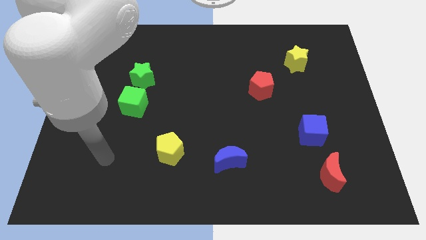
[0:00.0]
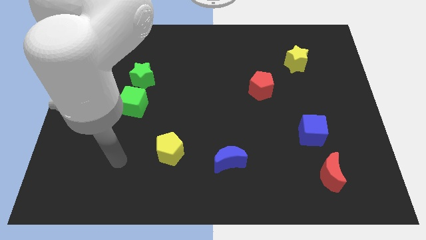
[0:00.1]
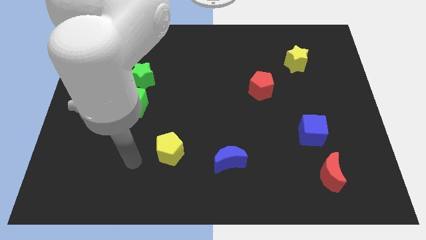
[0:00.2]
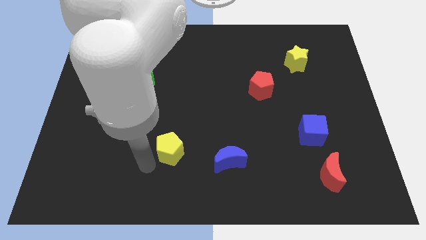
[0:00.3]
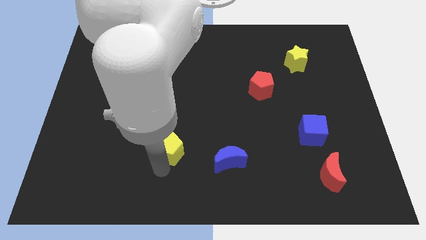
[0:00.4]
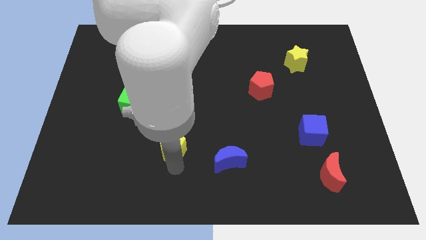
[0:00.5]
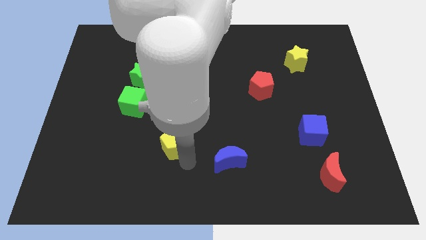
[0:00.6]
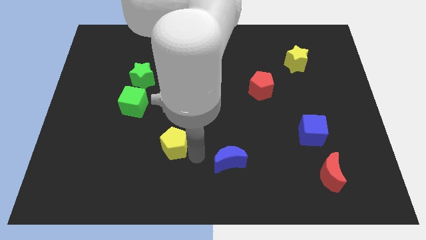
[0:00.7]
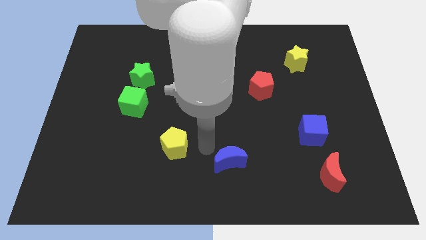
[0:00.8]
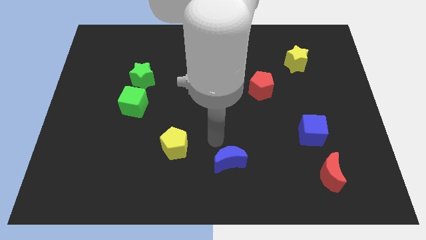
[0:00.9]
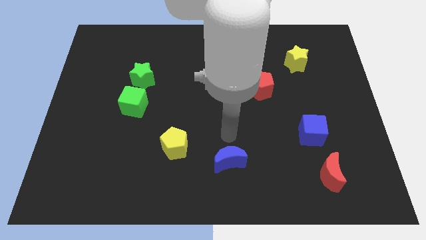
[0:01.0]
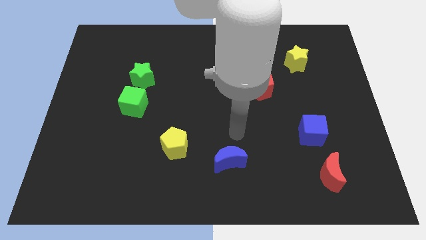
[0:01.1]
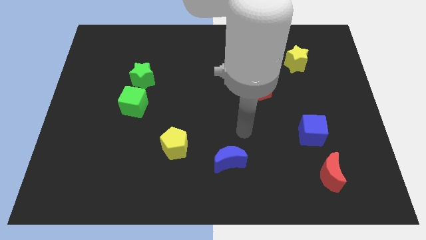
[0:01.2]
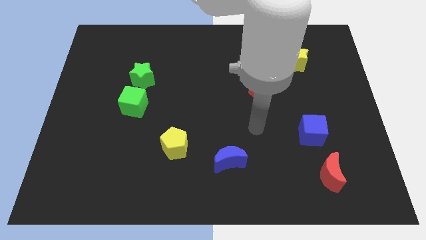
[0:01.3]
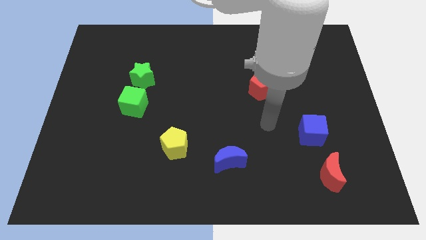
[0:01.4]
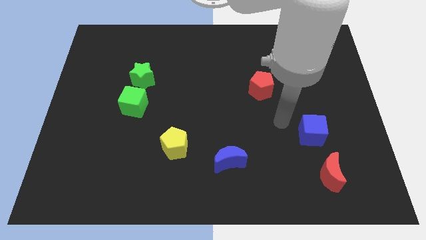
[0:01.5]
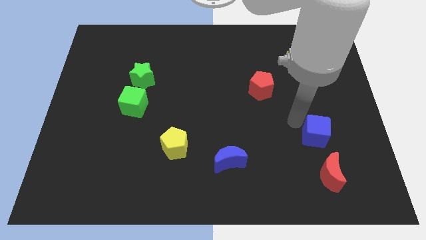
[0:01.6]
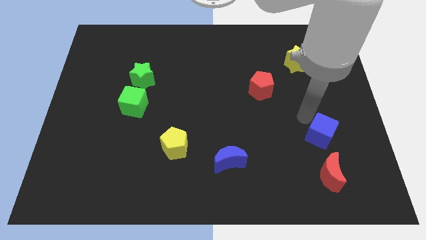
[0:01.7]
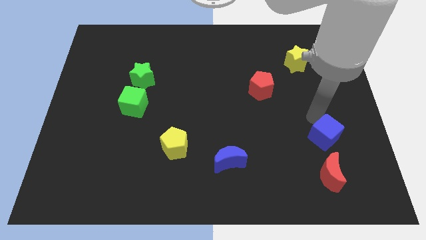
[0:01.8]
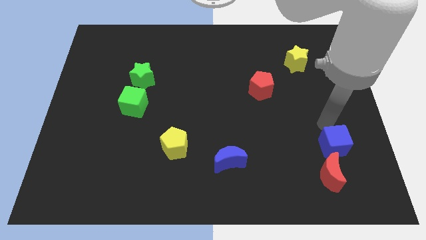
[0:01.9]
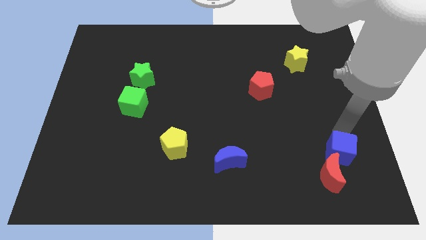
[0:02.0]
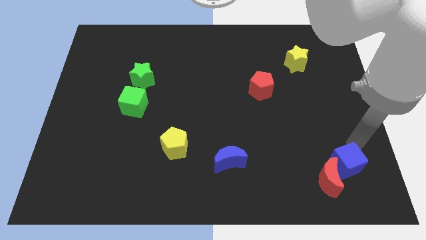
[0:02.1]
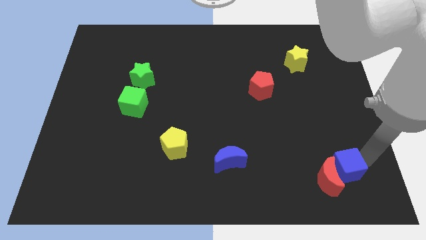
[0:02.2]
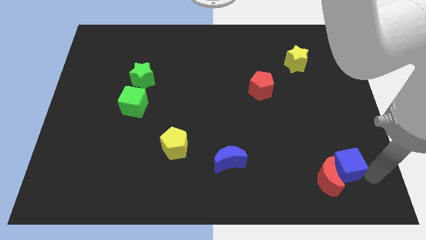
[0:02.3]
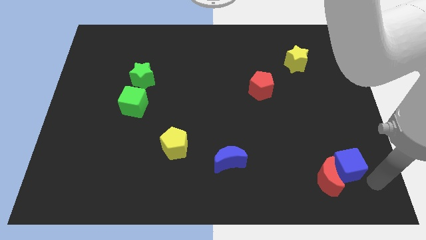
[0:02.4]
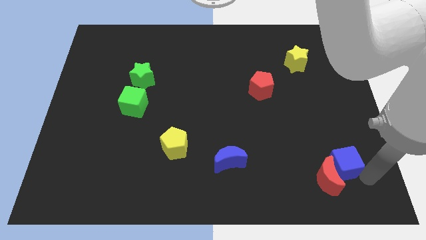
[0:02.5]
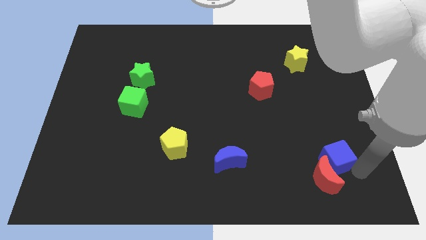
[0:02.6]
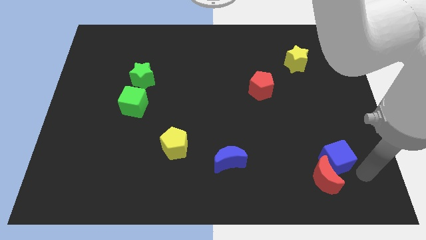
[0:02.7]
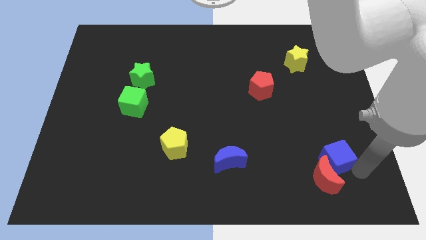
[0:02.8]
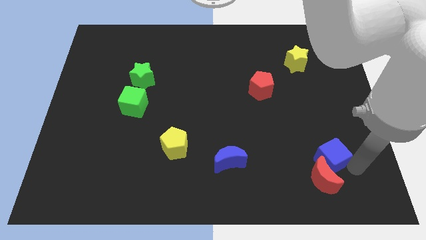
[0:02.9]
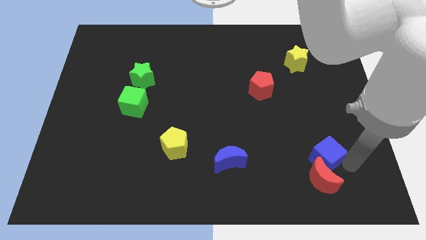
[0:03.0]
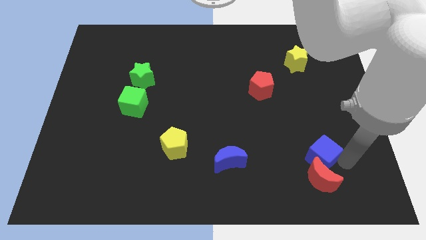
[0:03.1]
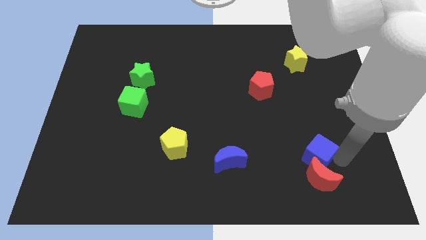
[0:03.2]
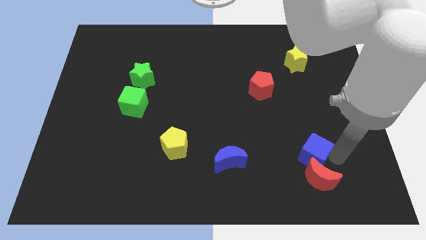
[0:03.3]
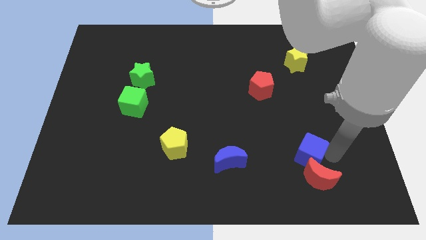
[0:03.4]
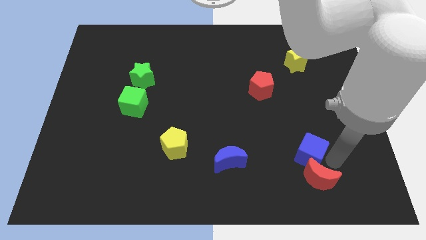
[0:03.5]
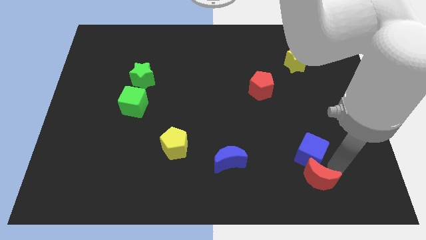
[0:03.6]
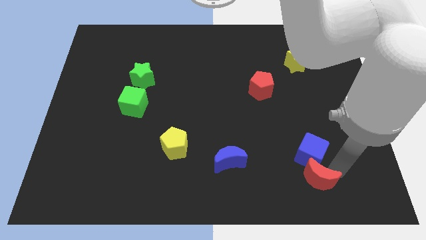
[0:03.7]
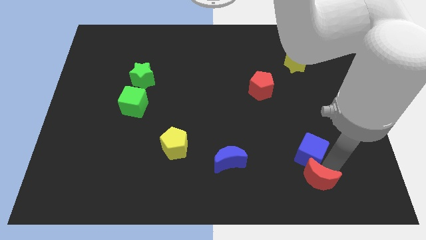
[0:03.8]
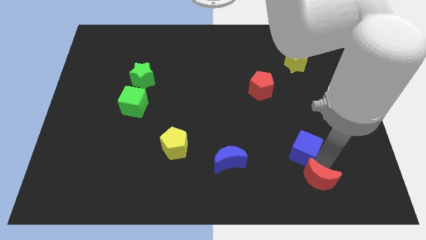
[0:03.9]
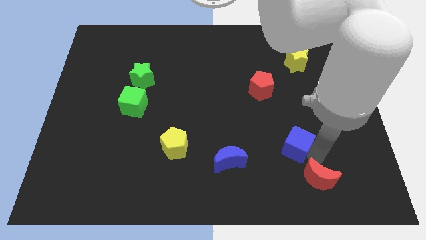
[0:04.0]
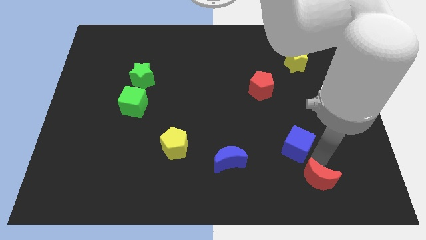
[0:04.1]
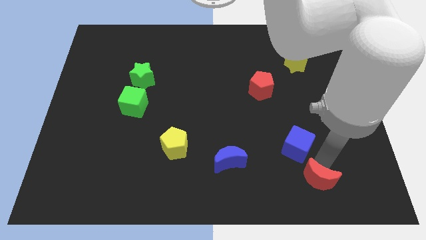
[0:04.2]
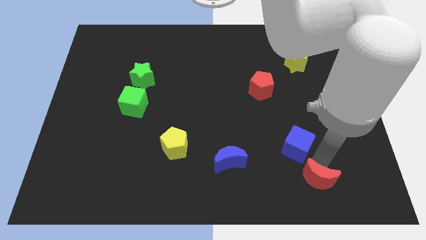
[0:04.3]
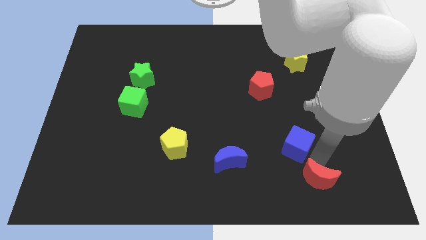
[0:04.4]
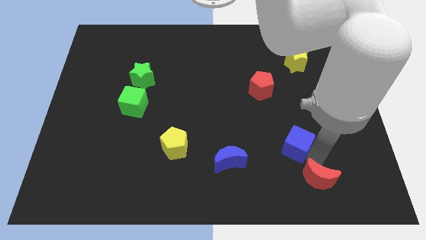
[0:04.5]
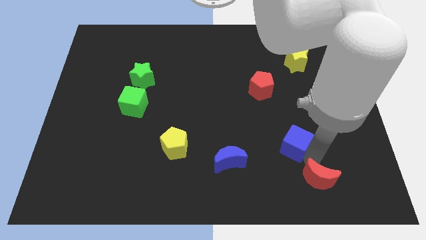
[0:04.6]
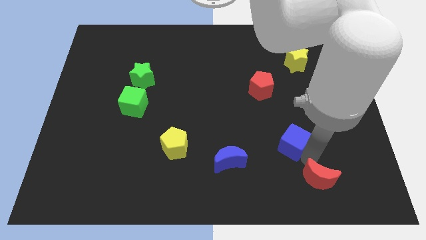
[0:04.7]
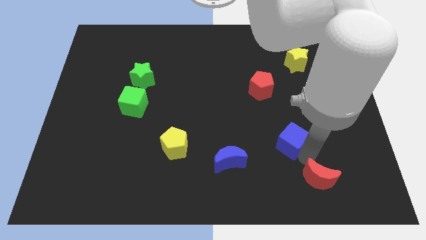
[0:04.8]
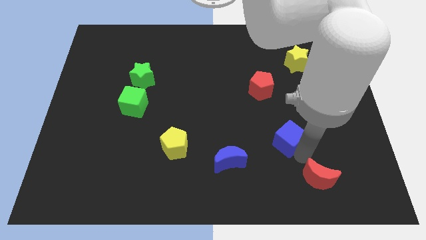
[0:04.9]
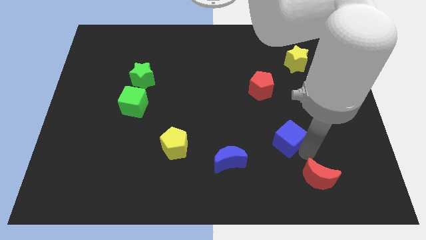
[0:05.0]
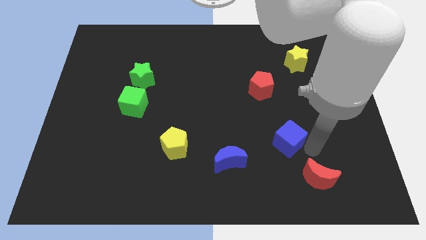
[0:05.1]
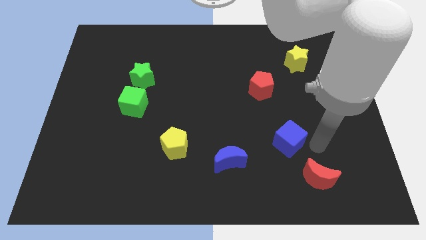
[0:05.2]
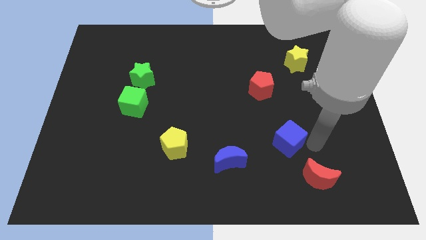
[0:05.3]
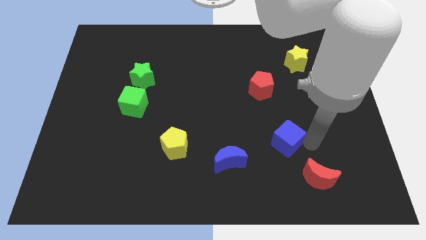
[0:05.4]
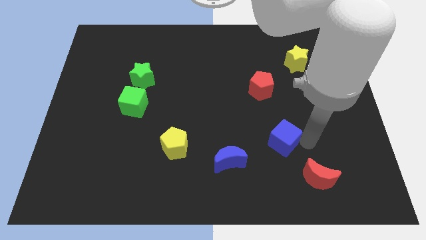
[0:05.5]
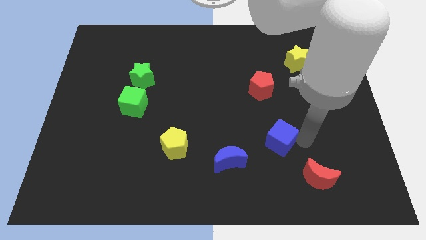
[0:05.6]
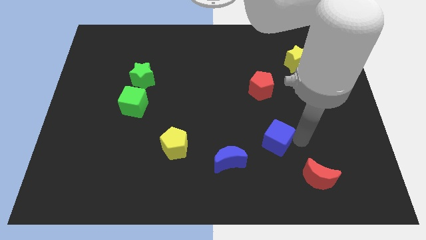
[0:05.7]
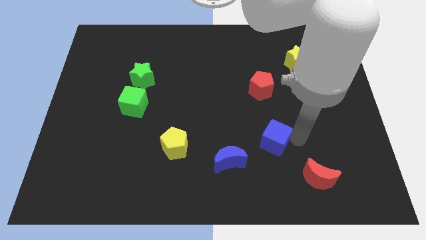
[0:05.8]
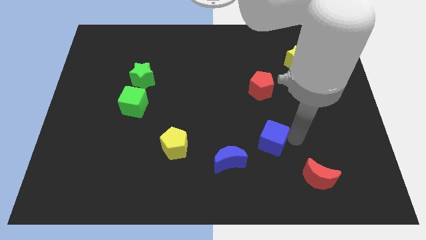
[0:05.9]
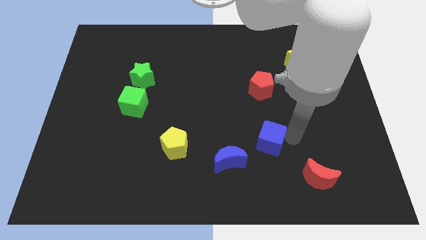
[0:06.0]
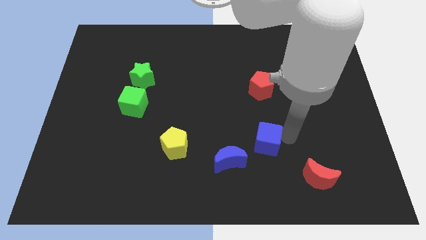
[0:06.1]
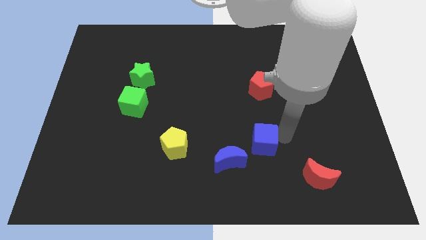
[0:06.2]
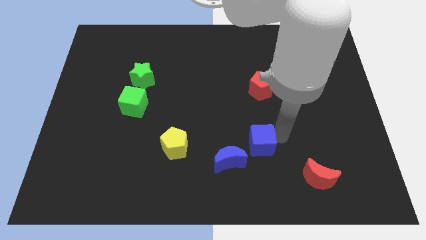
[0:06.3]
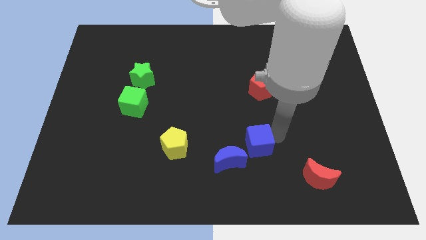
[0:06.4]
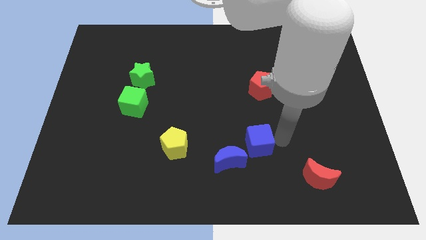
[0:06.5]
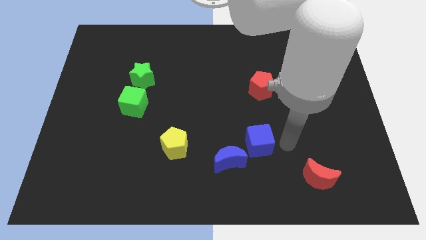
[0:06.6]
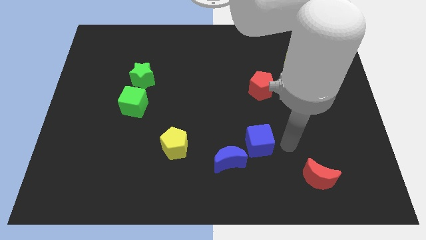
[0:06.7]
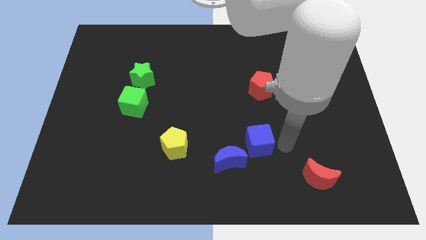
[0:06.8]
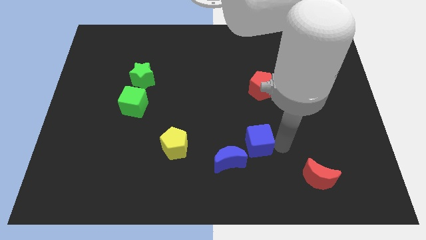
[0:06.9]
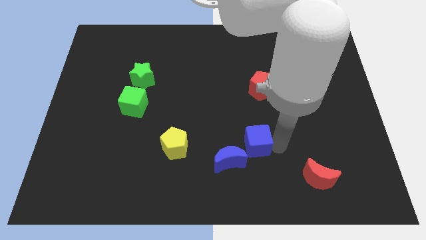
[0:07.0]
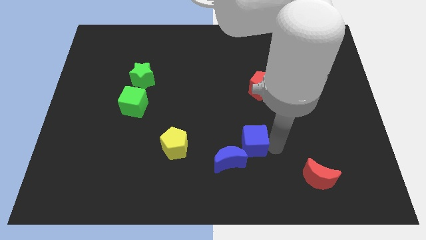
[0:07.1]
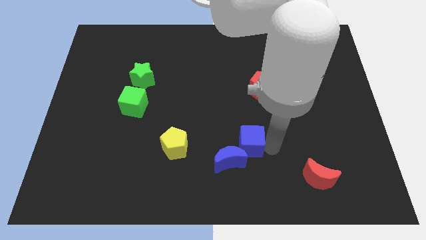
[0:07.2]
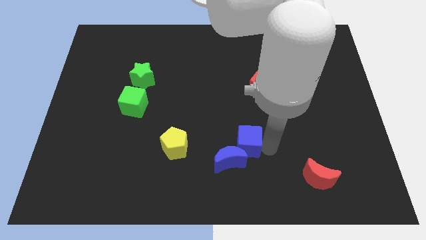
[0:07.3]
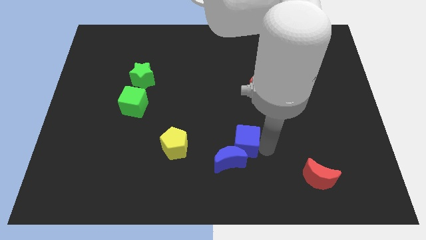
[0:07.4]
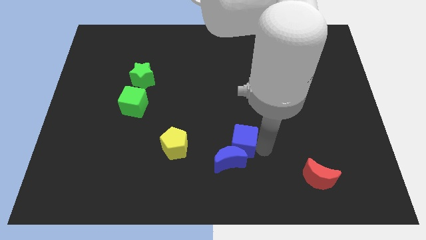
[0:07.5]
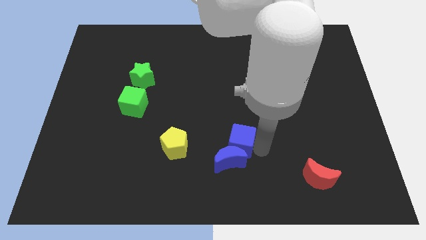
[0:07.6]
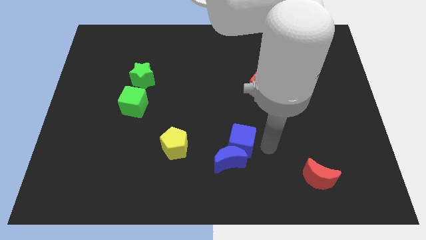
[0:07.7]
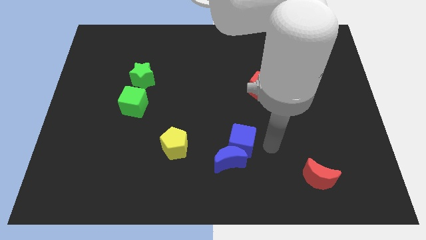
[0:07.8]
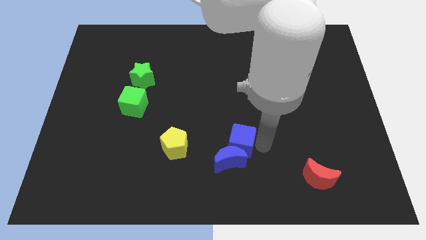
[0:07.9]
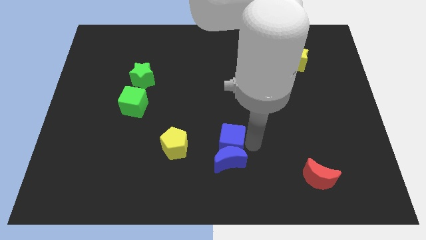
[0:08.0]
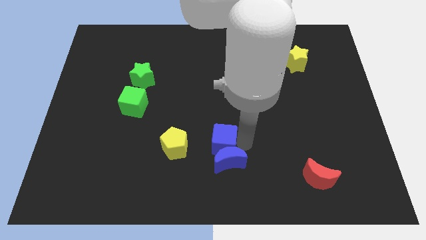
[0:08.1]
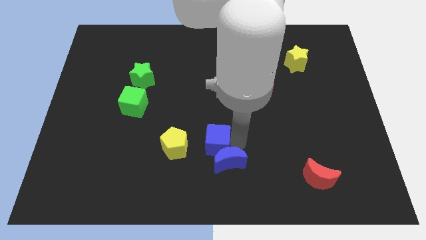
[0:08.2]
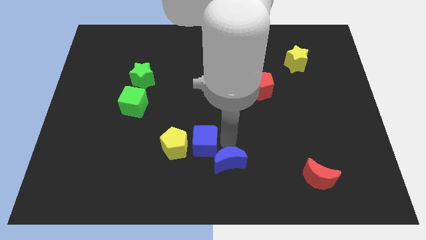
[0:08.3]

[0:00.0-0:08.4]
move the blue cube to the yellow pentagon

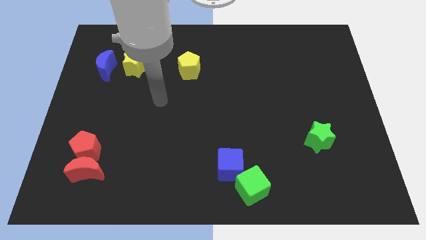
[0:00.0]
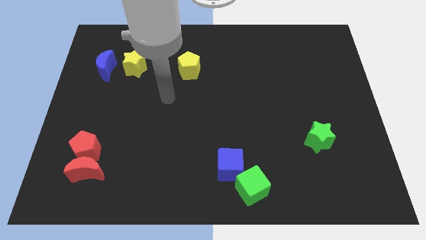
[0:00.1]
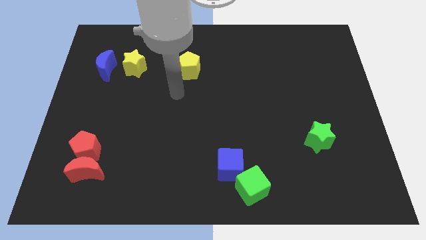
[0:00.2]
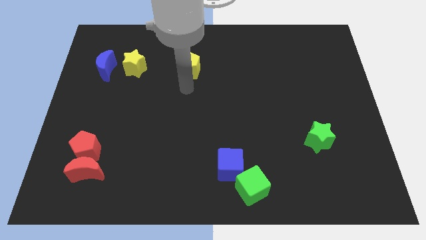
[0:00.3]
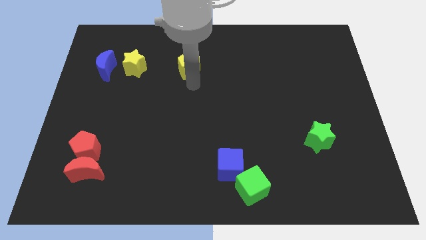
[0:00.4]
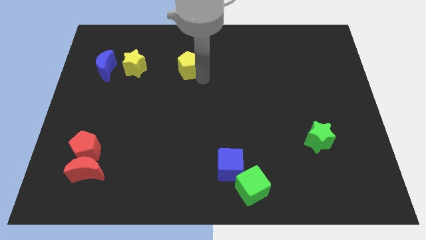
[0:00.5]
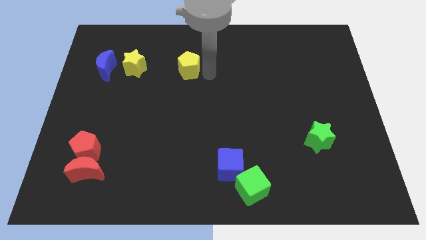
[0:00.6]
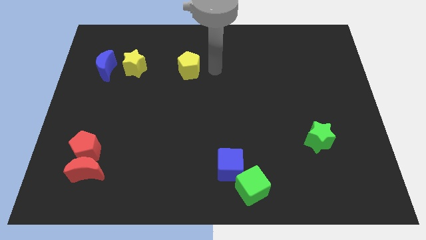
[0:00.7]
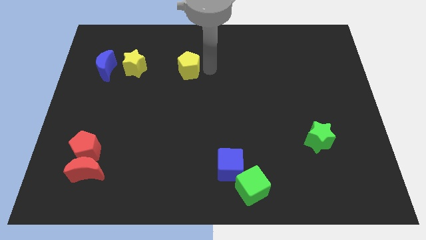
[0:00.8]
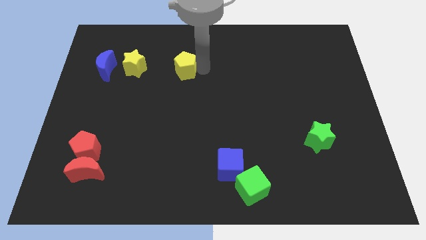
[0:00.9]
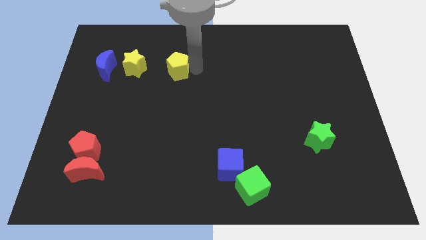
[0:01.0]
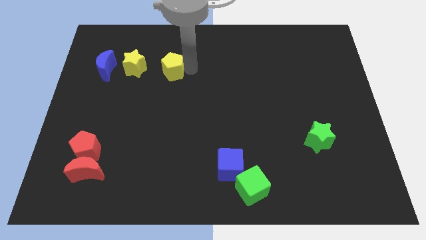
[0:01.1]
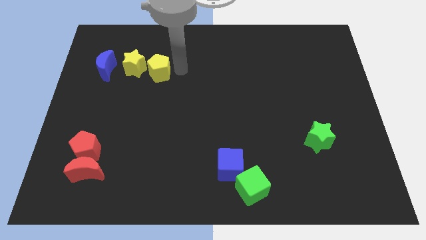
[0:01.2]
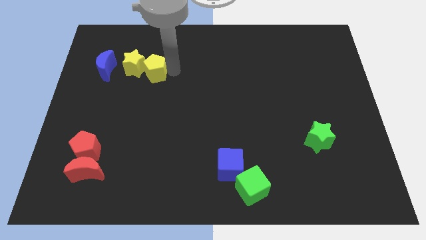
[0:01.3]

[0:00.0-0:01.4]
slide the yellow pentagon to the yellow star
